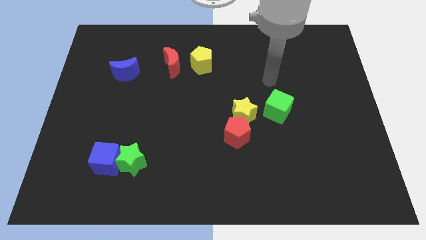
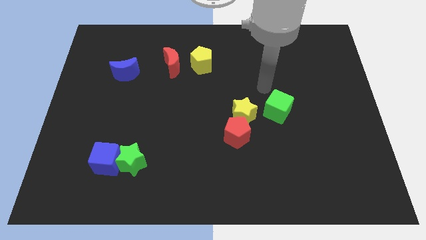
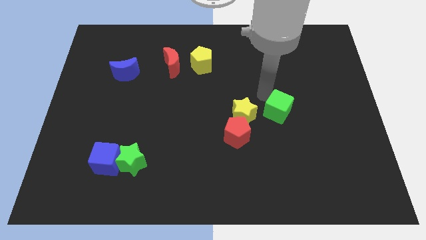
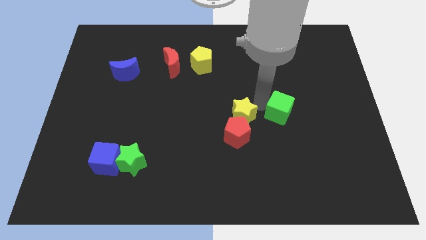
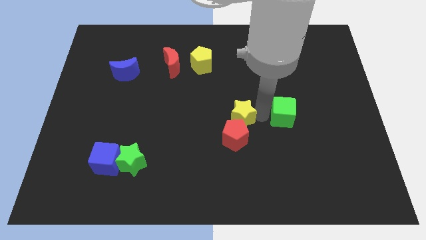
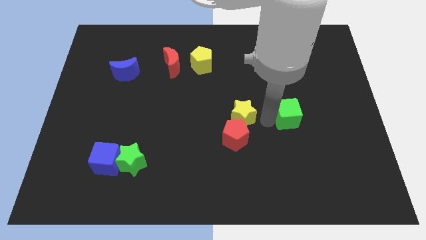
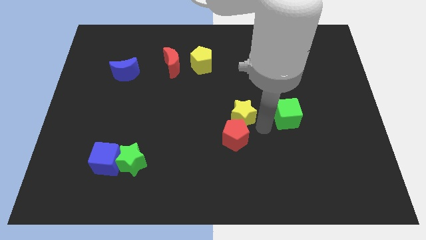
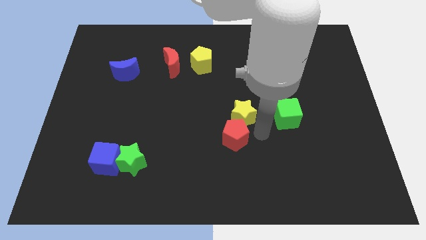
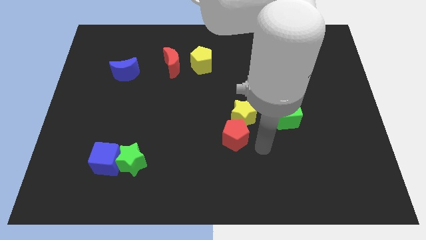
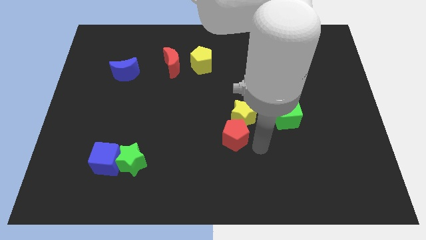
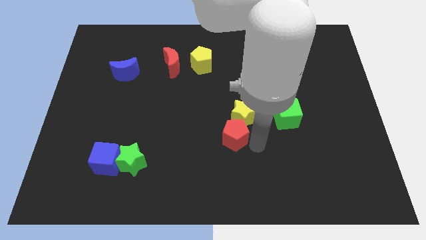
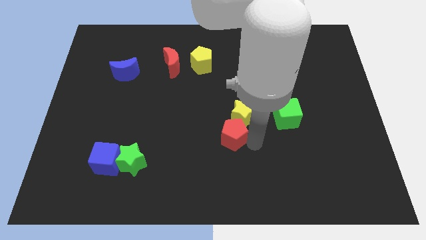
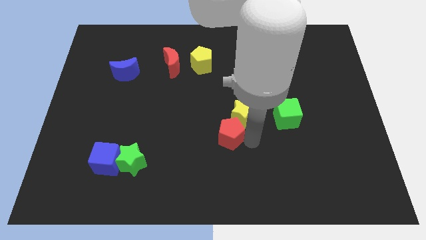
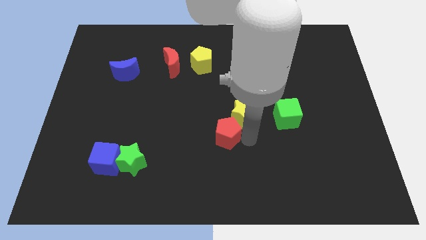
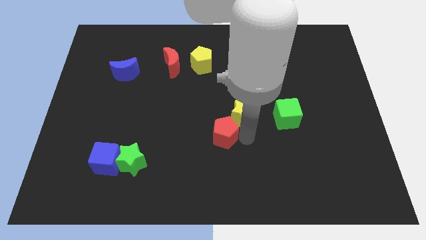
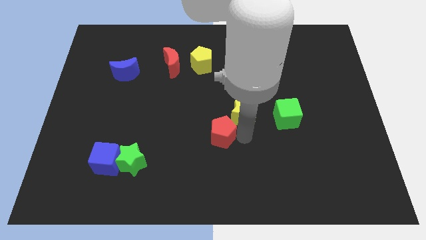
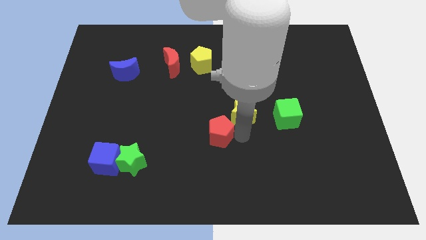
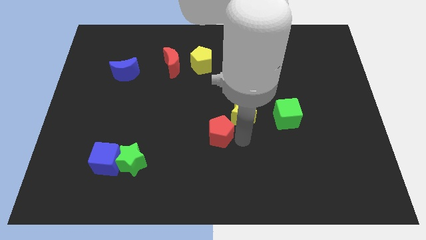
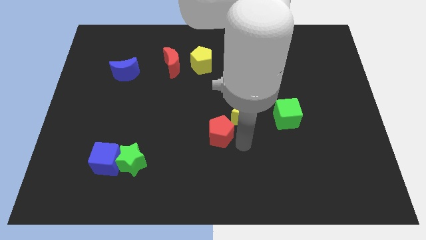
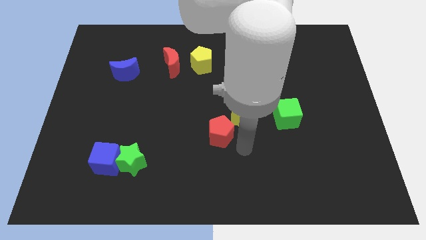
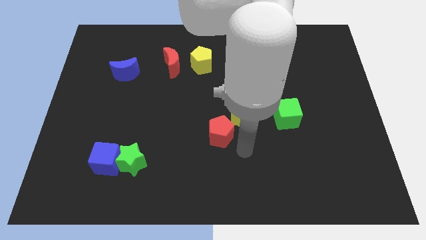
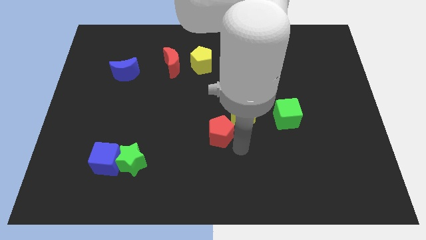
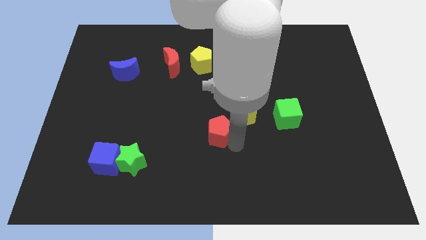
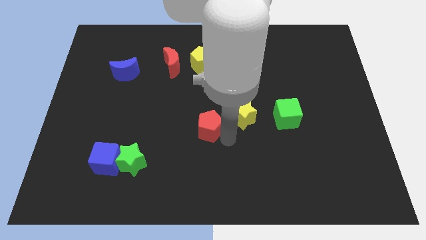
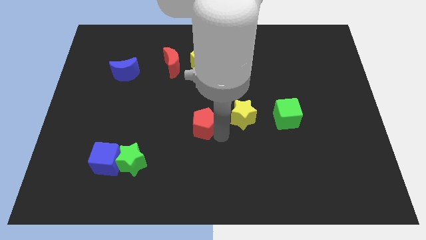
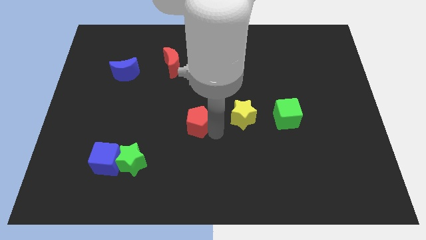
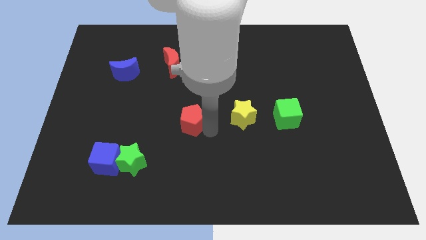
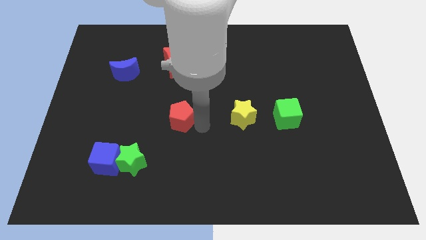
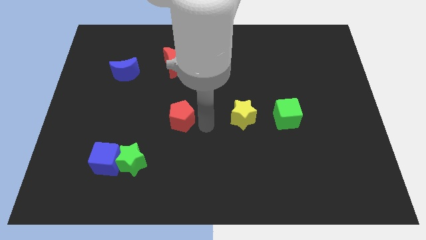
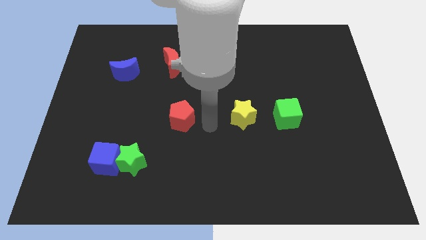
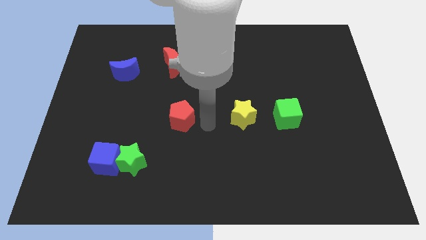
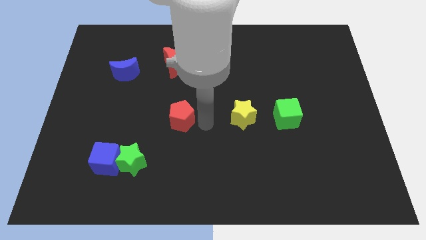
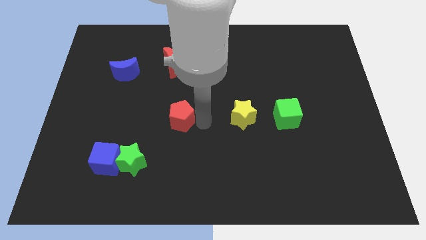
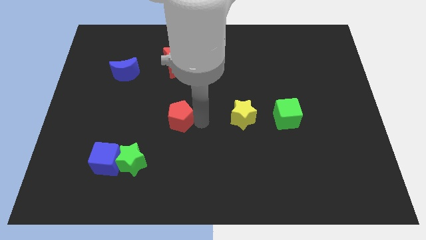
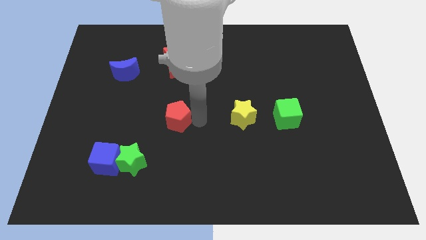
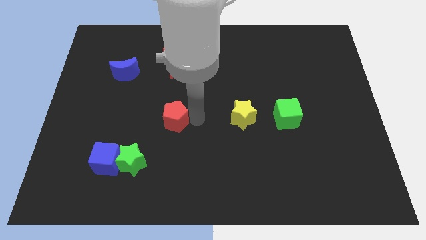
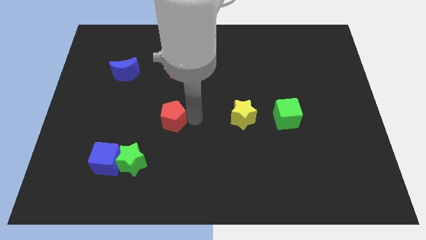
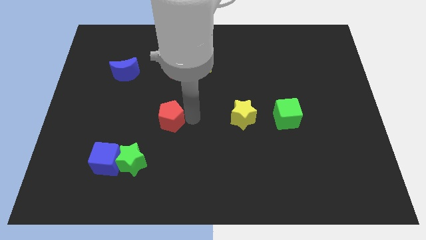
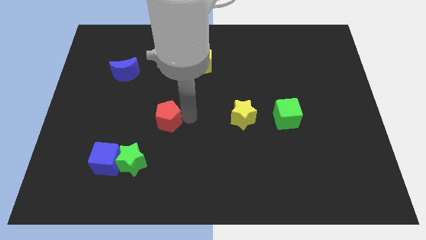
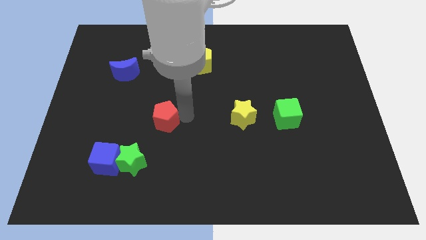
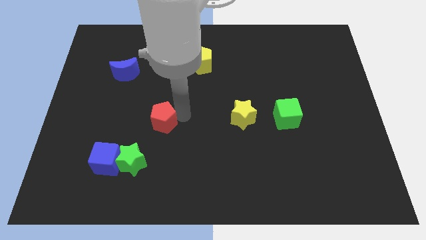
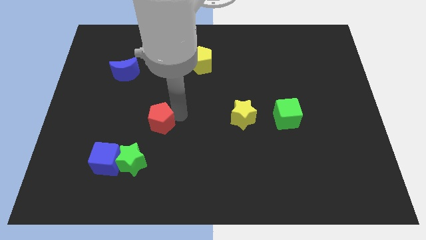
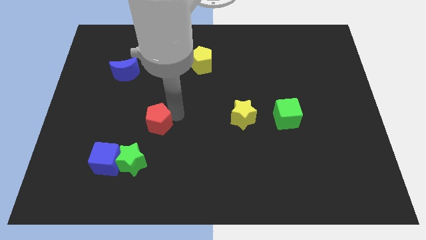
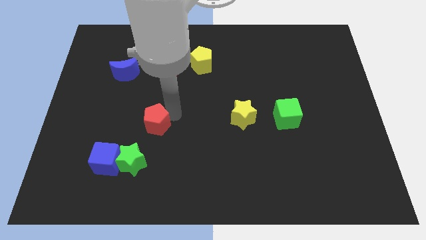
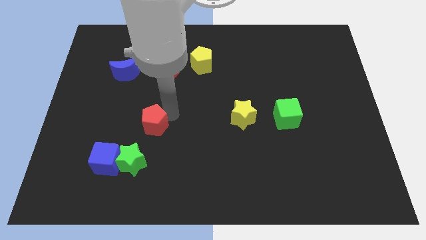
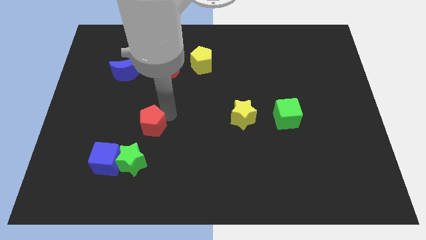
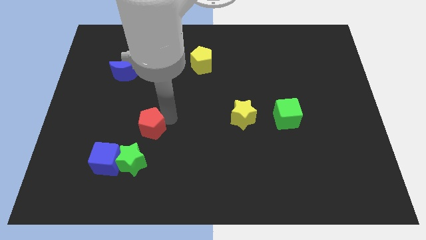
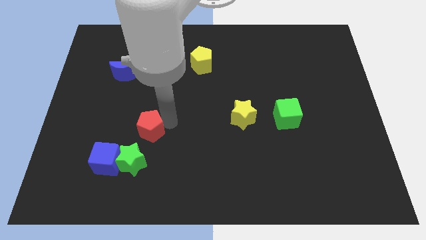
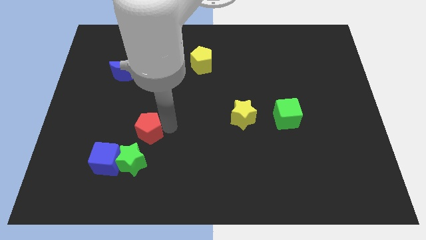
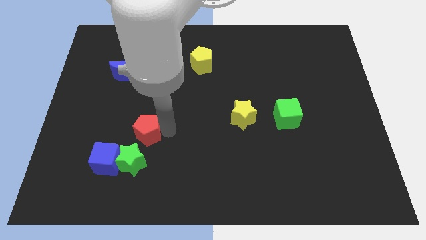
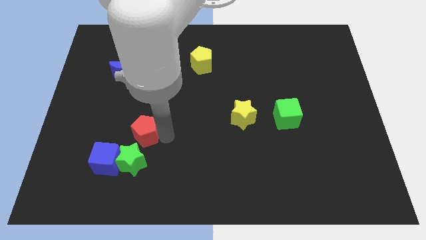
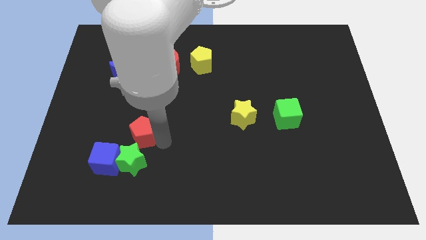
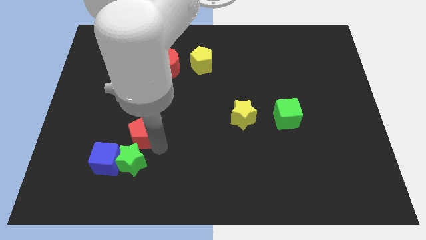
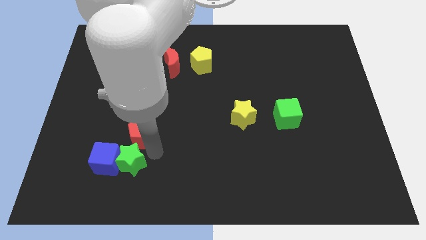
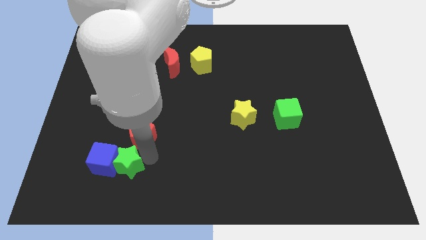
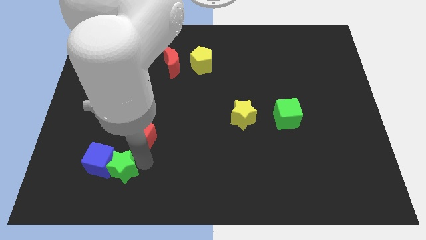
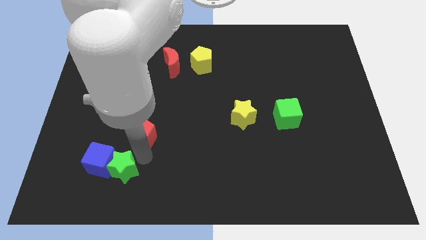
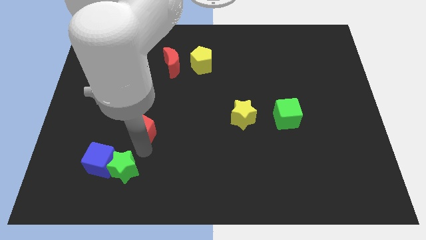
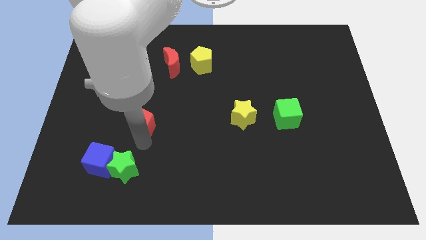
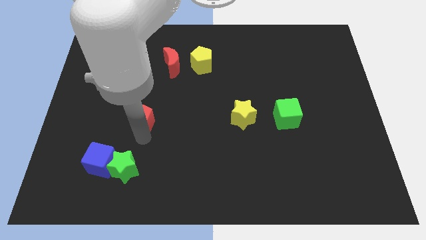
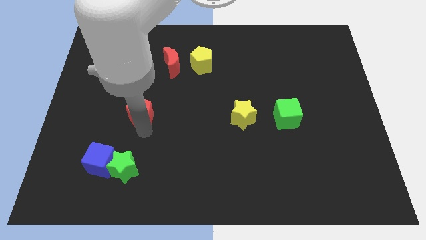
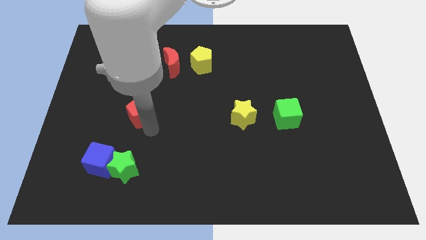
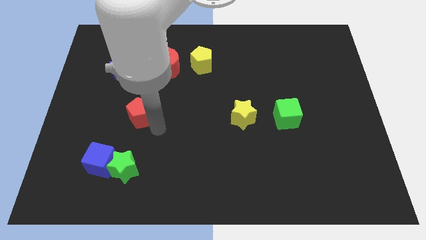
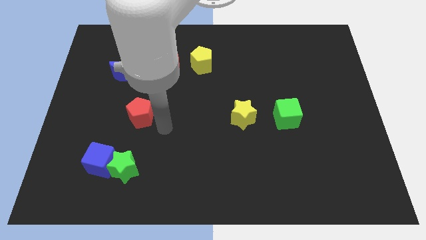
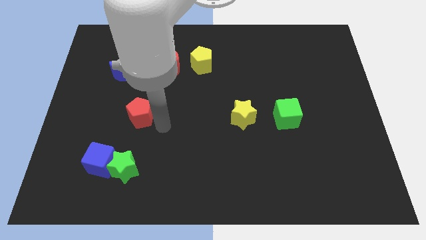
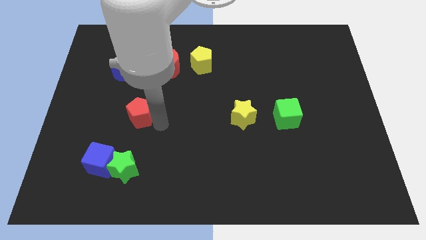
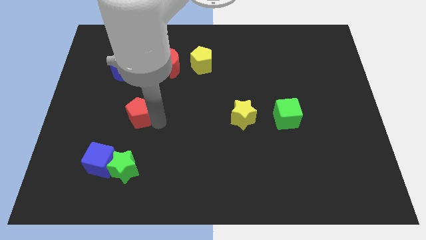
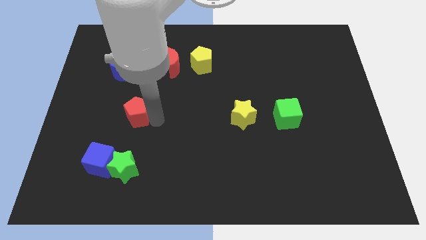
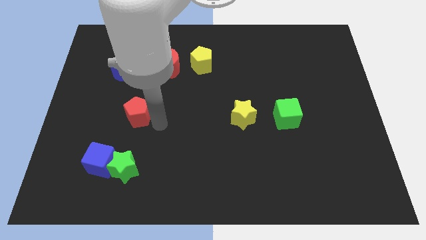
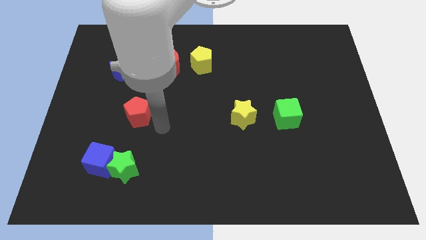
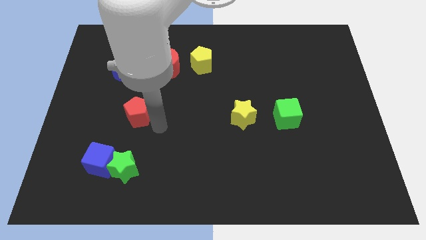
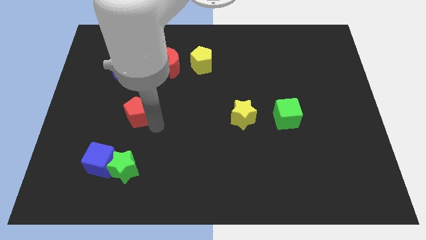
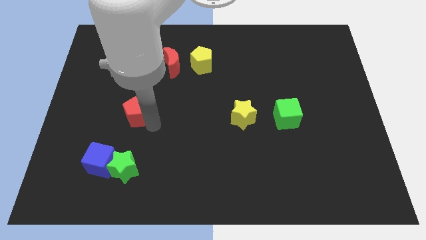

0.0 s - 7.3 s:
slide the red pentagon to the bottom of the blue moon

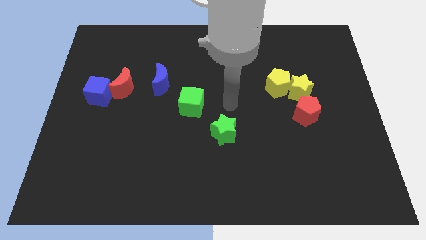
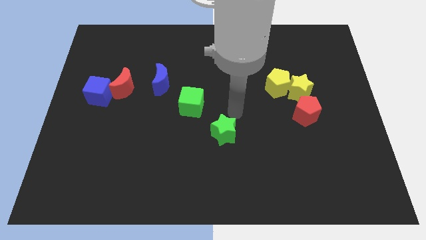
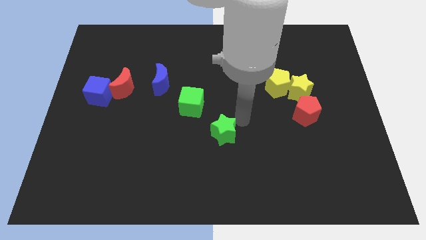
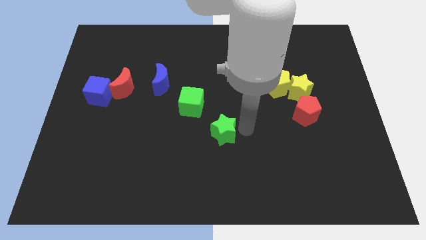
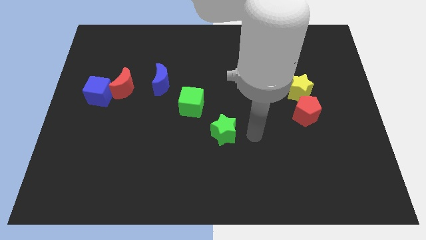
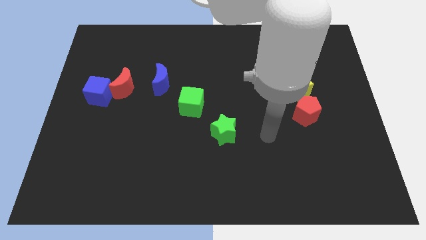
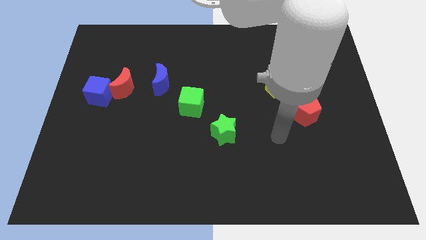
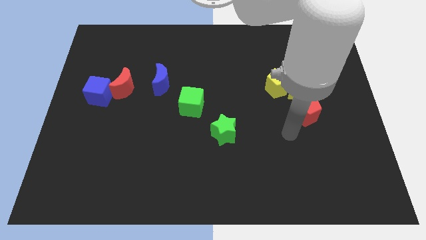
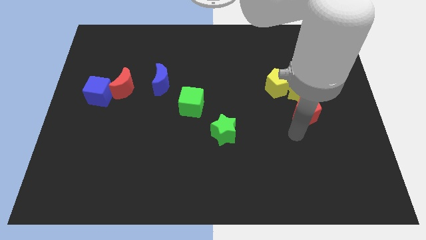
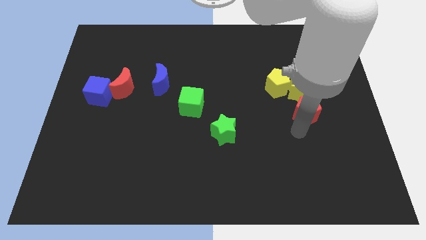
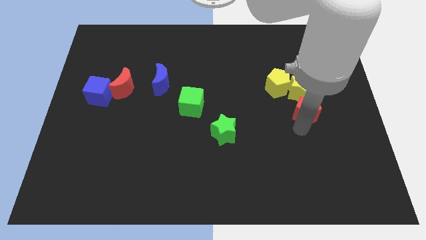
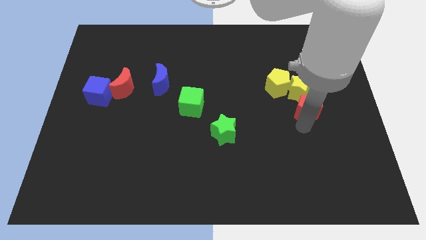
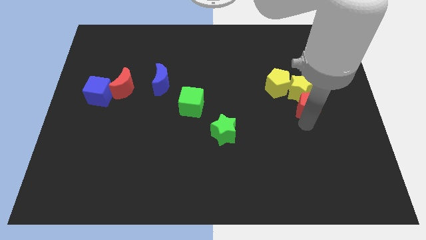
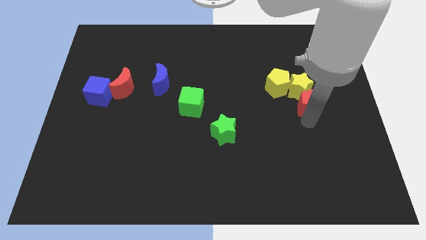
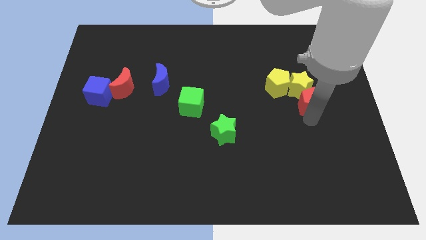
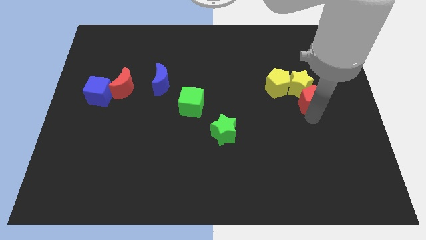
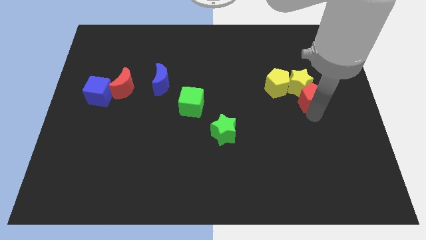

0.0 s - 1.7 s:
move the red pentagon to the right of the yellow pentagon
